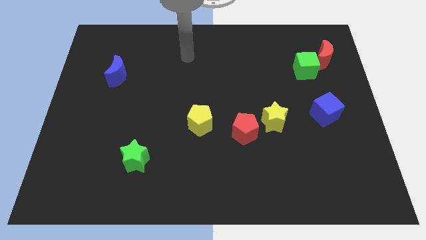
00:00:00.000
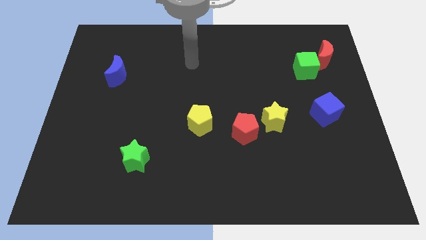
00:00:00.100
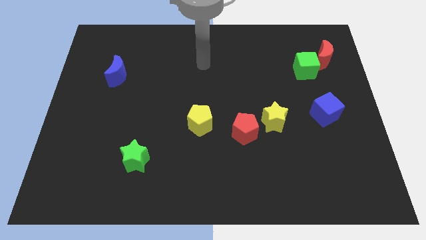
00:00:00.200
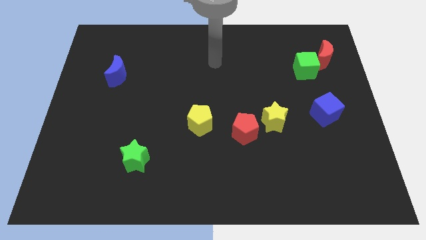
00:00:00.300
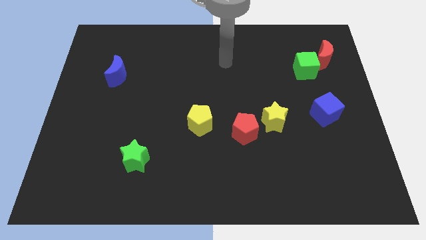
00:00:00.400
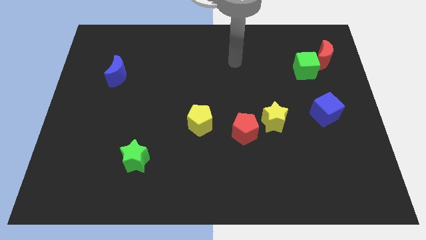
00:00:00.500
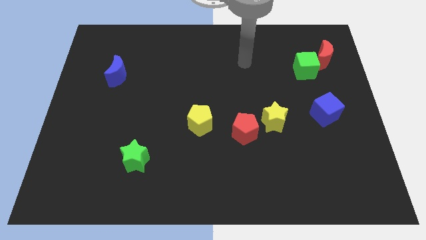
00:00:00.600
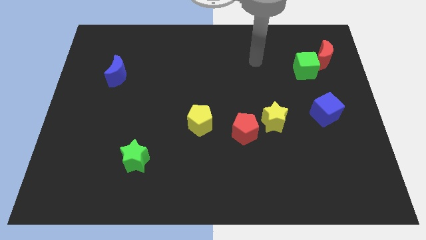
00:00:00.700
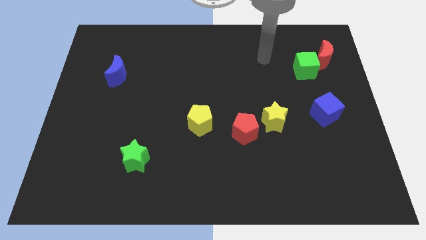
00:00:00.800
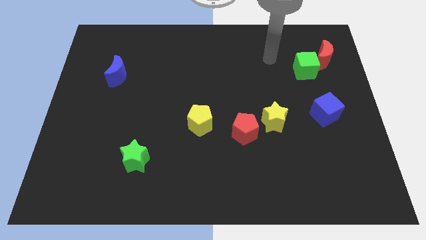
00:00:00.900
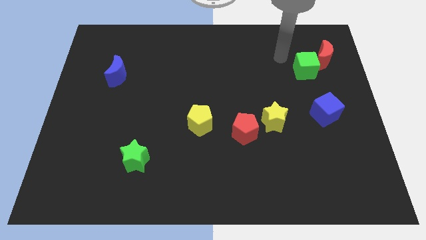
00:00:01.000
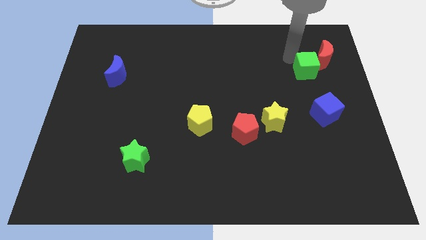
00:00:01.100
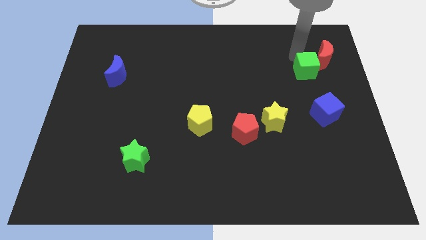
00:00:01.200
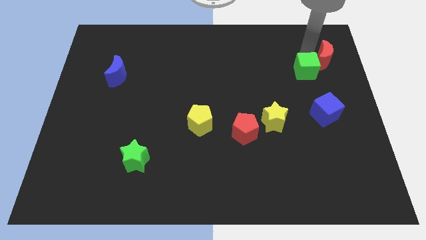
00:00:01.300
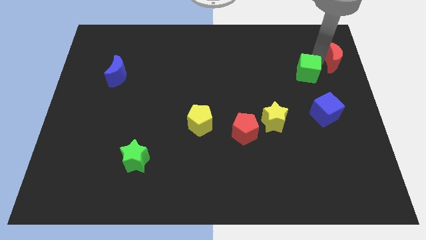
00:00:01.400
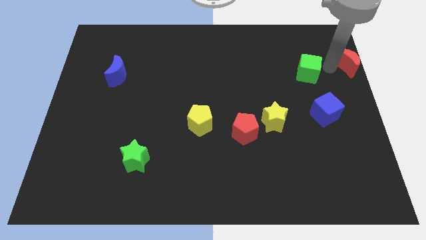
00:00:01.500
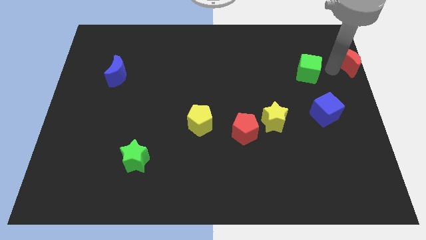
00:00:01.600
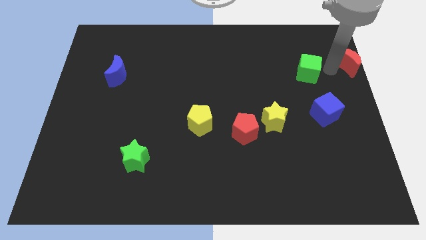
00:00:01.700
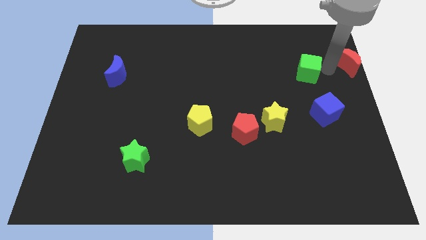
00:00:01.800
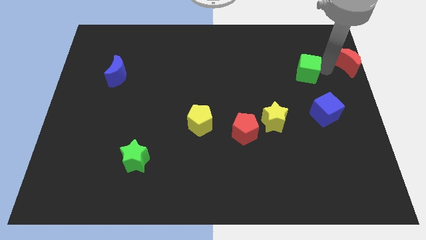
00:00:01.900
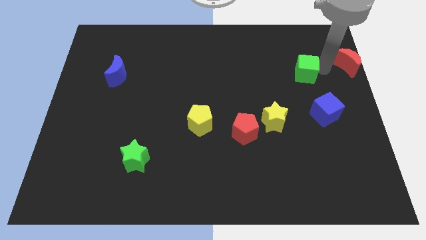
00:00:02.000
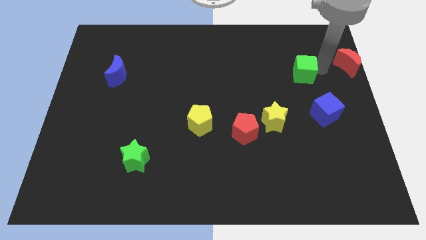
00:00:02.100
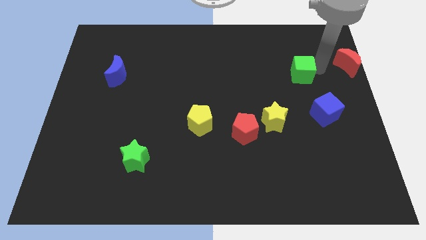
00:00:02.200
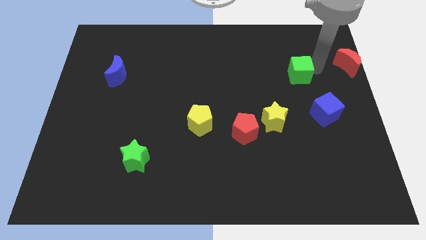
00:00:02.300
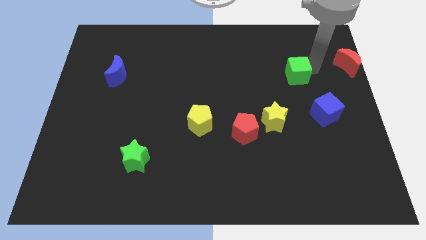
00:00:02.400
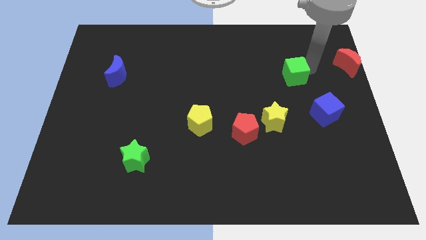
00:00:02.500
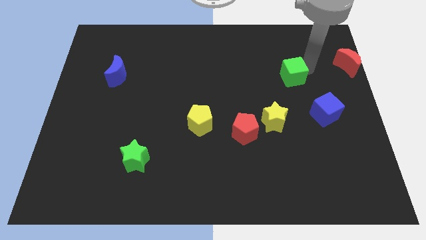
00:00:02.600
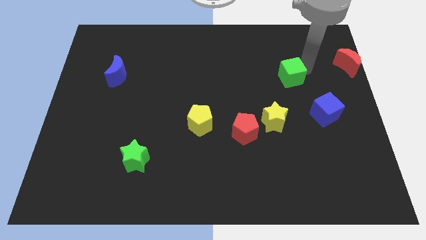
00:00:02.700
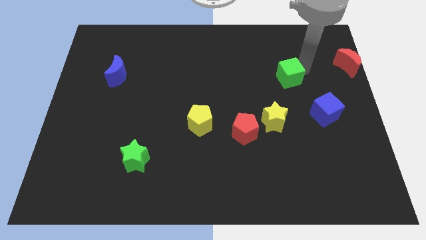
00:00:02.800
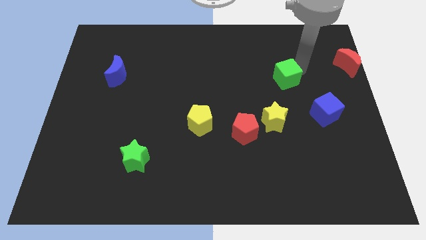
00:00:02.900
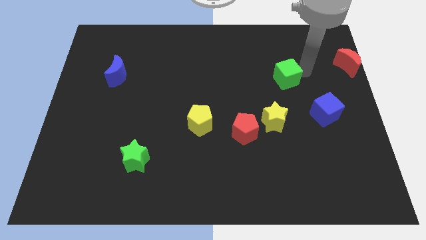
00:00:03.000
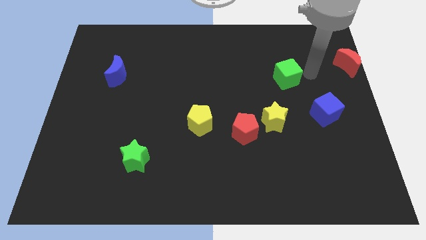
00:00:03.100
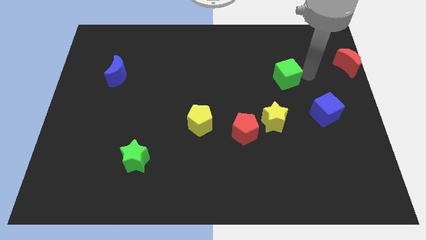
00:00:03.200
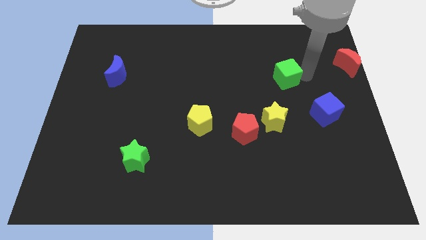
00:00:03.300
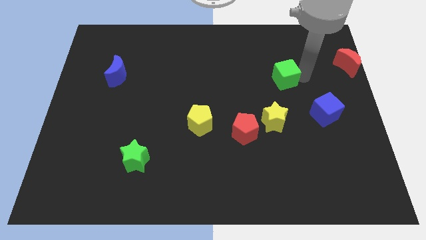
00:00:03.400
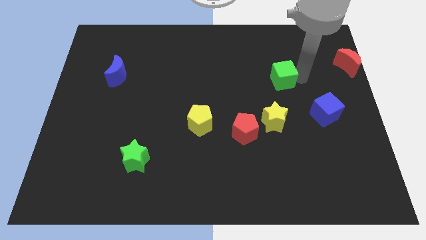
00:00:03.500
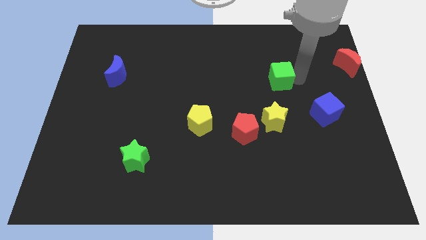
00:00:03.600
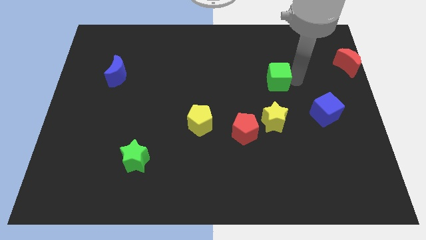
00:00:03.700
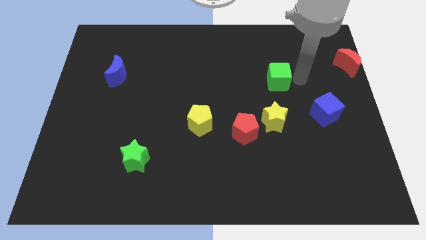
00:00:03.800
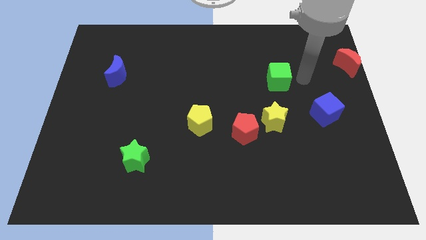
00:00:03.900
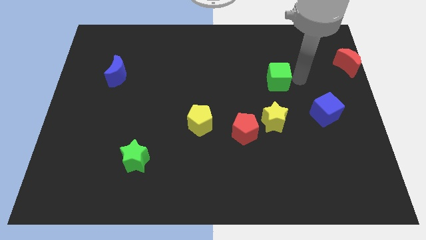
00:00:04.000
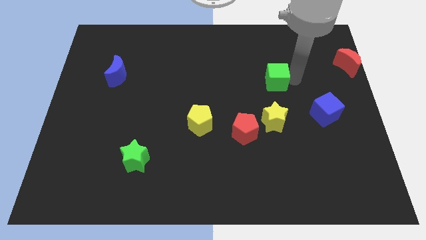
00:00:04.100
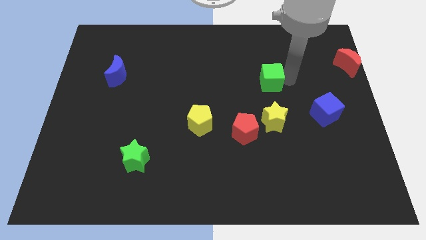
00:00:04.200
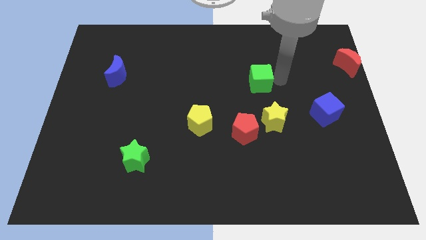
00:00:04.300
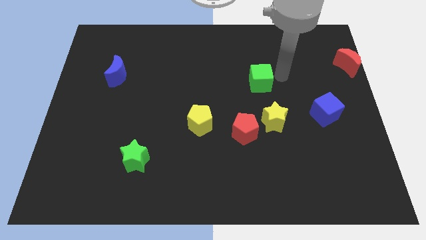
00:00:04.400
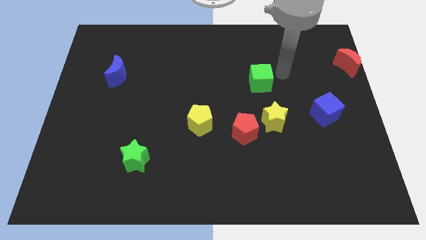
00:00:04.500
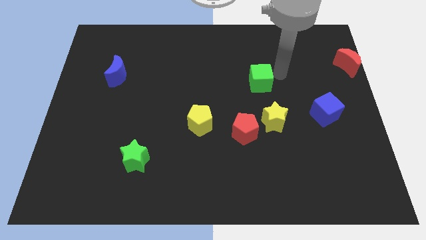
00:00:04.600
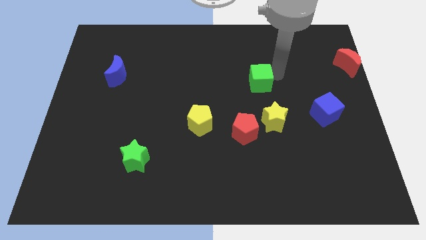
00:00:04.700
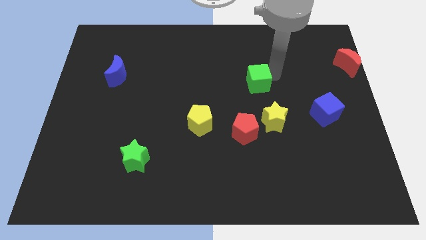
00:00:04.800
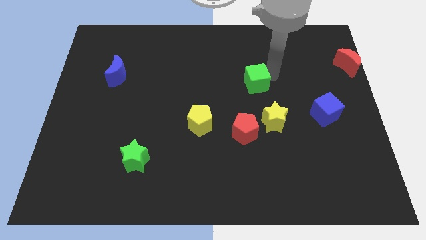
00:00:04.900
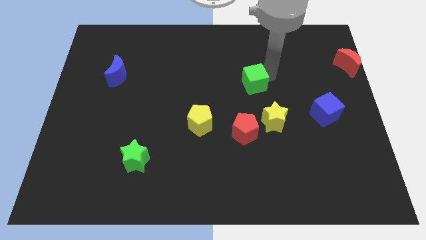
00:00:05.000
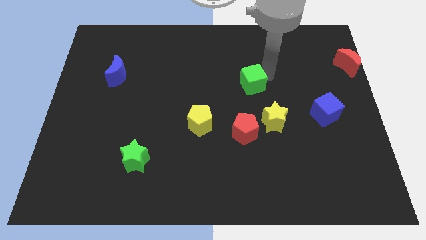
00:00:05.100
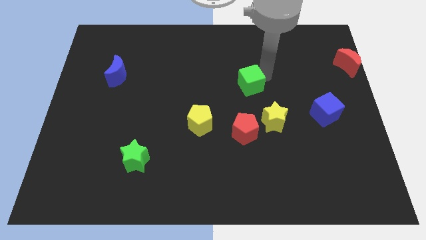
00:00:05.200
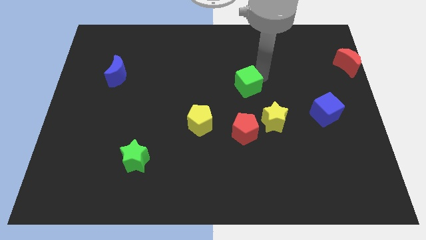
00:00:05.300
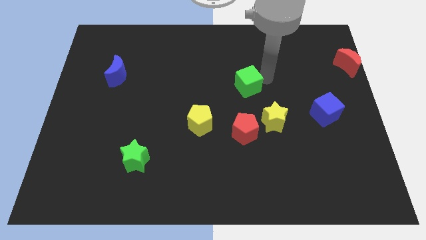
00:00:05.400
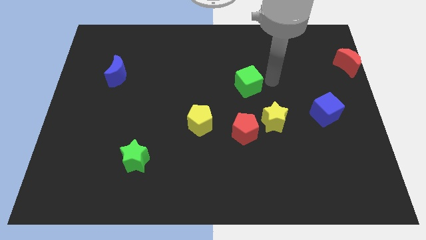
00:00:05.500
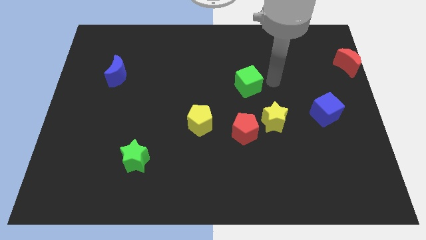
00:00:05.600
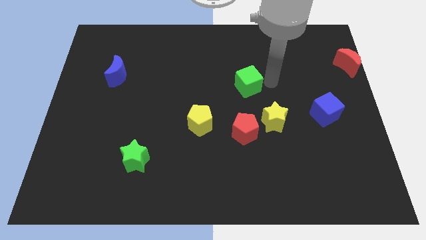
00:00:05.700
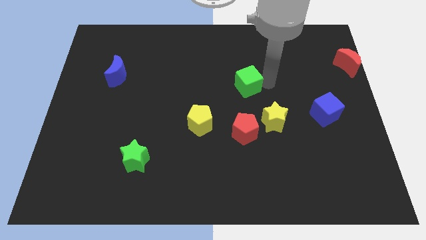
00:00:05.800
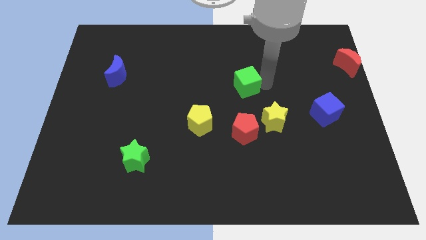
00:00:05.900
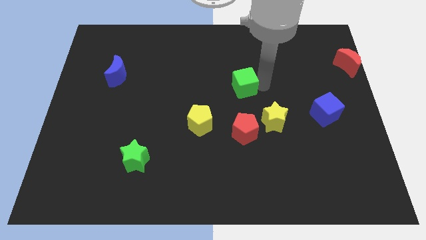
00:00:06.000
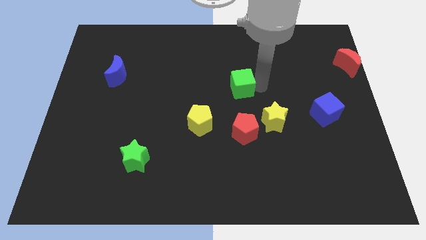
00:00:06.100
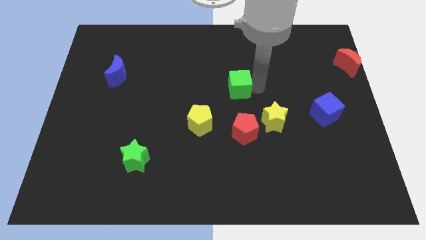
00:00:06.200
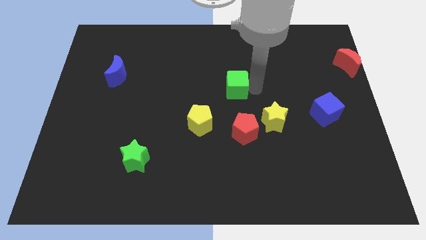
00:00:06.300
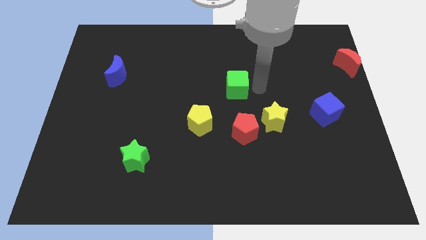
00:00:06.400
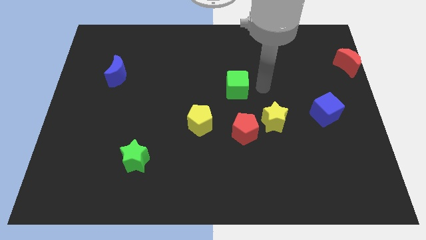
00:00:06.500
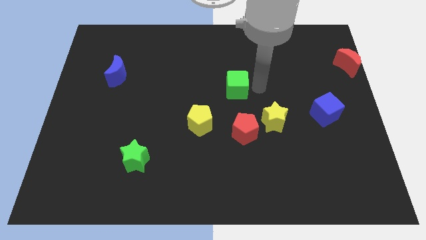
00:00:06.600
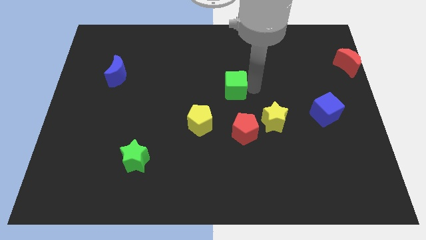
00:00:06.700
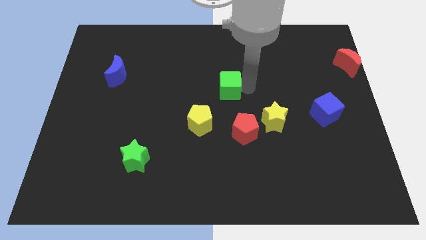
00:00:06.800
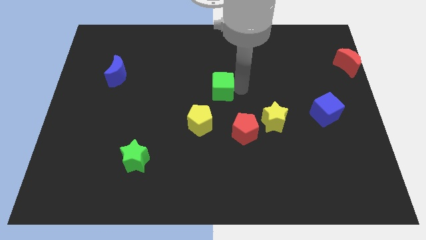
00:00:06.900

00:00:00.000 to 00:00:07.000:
push the green cube above the yellow pentagon
